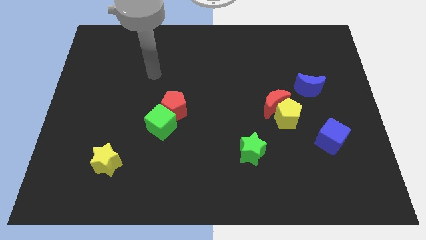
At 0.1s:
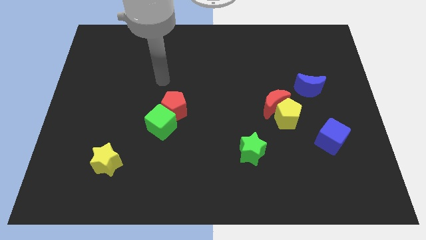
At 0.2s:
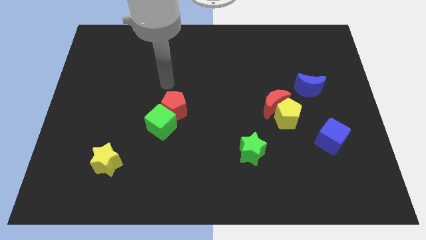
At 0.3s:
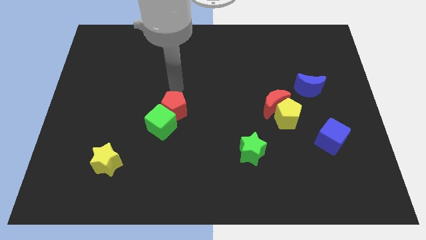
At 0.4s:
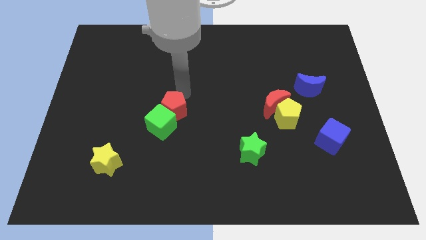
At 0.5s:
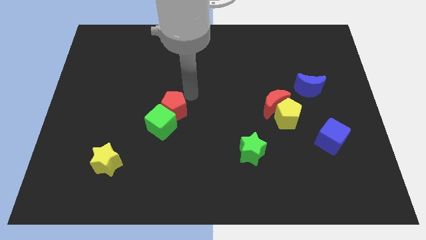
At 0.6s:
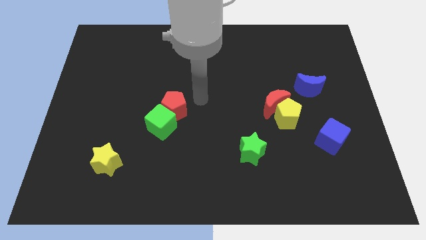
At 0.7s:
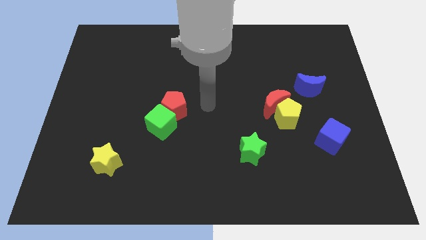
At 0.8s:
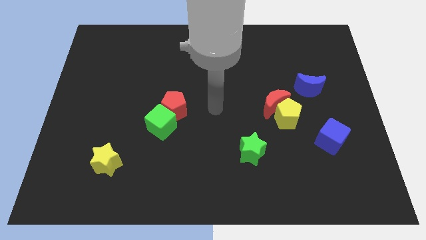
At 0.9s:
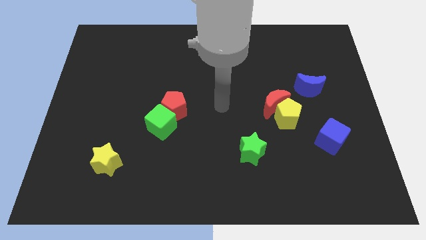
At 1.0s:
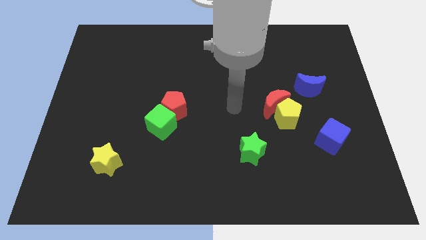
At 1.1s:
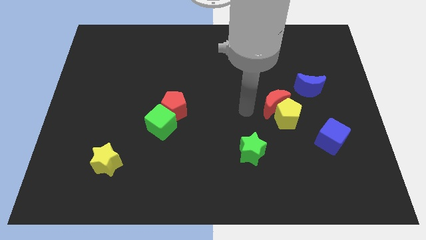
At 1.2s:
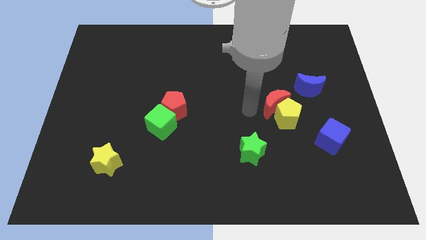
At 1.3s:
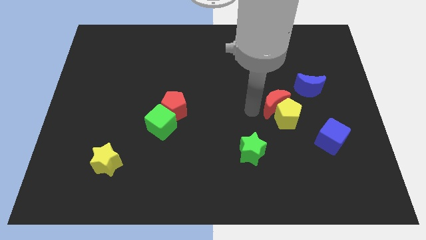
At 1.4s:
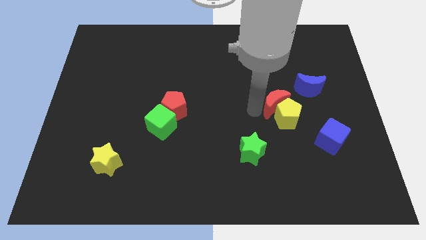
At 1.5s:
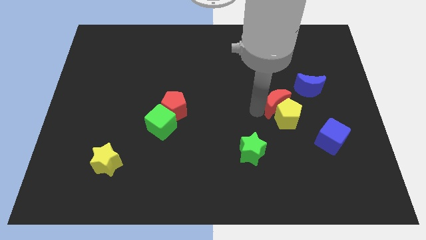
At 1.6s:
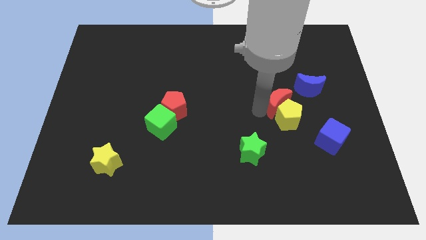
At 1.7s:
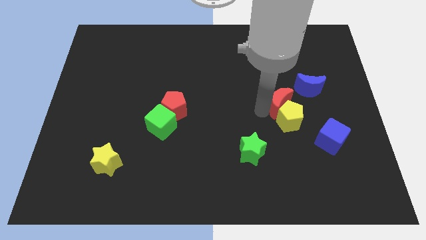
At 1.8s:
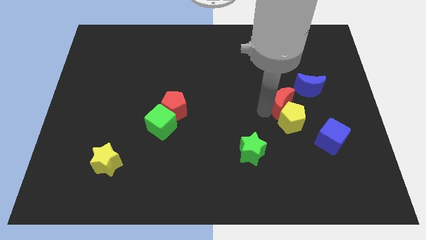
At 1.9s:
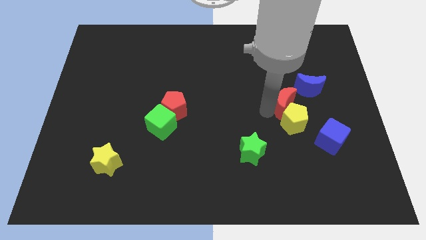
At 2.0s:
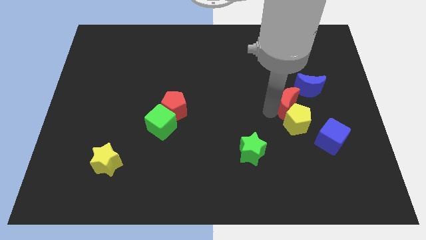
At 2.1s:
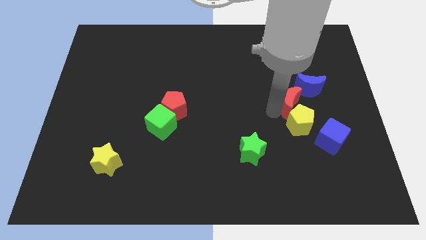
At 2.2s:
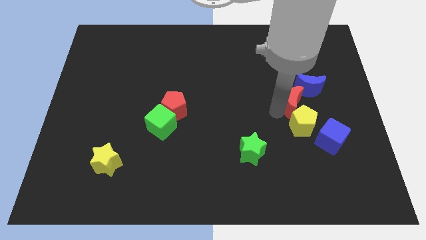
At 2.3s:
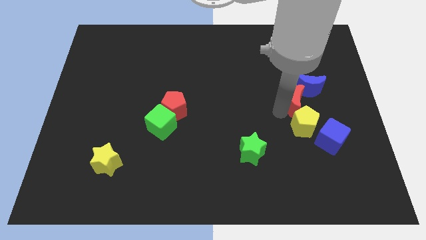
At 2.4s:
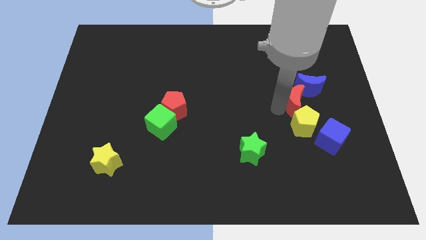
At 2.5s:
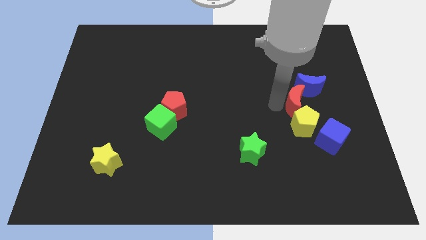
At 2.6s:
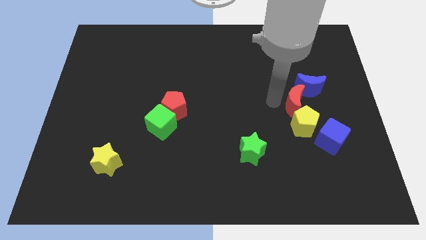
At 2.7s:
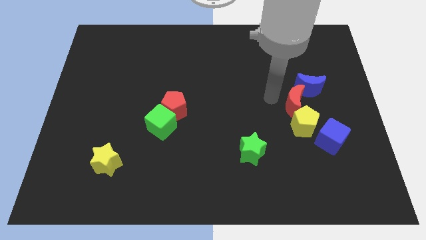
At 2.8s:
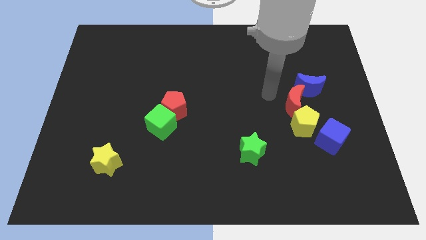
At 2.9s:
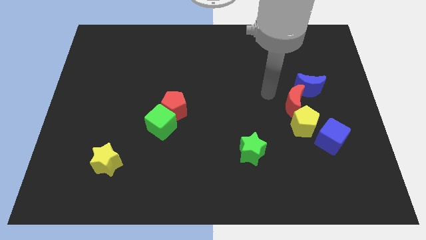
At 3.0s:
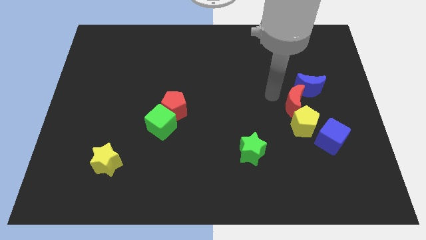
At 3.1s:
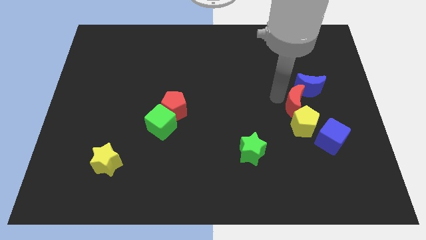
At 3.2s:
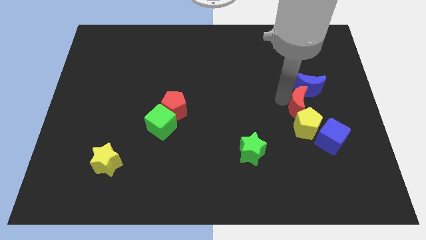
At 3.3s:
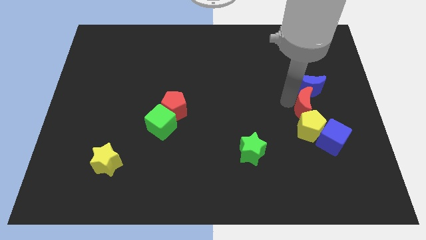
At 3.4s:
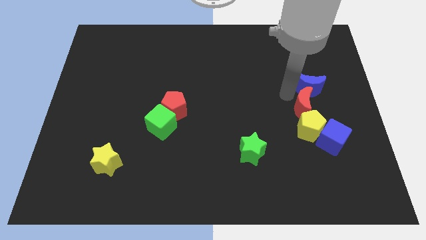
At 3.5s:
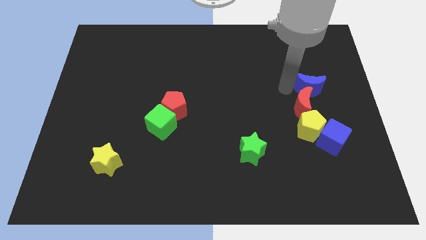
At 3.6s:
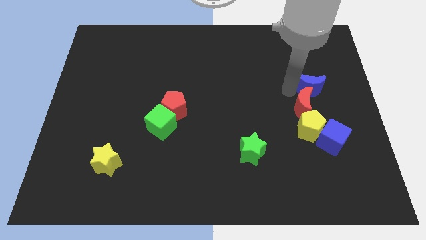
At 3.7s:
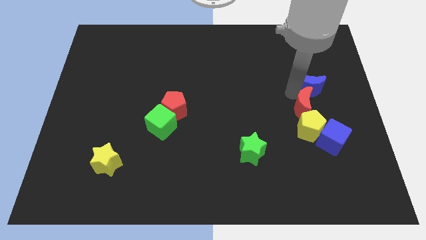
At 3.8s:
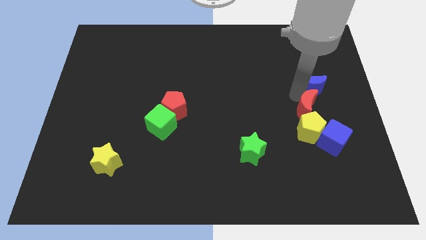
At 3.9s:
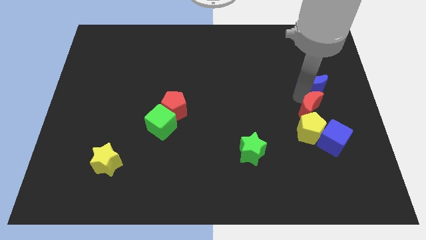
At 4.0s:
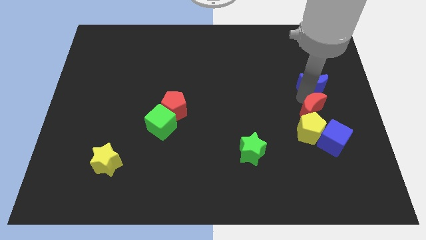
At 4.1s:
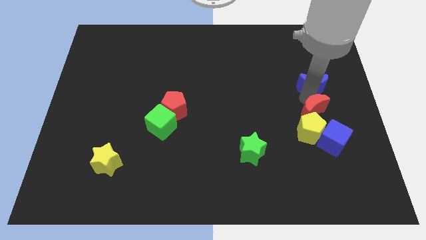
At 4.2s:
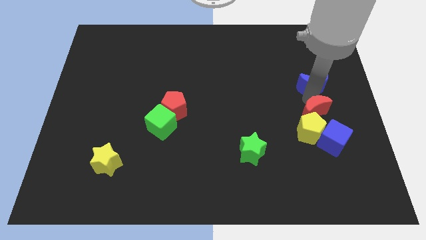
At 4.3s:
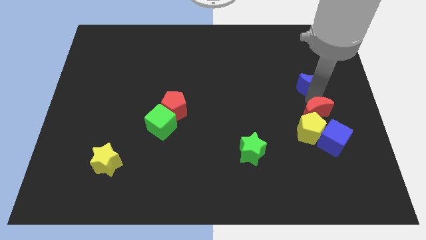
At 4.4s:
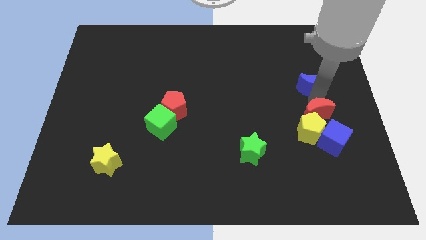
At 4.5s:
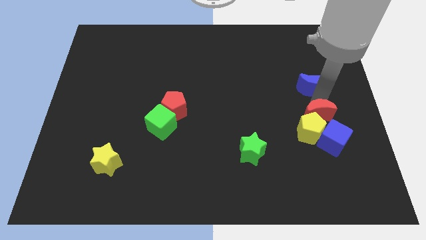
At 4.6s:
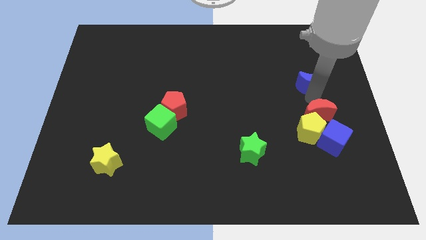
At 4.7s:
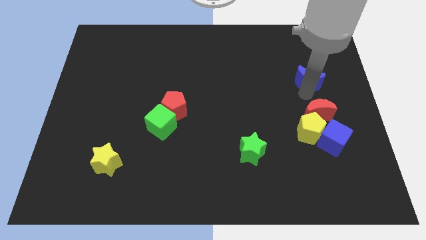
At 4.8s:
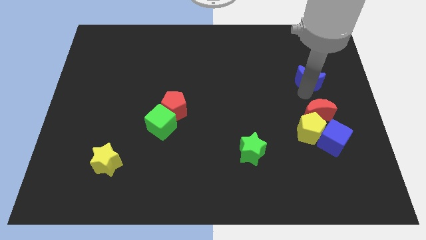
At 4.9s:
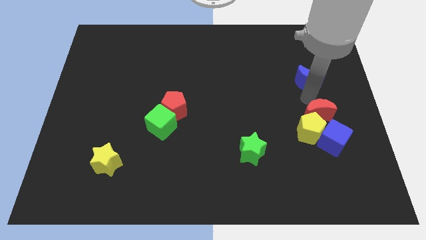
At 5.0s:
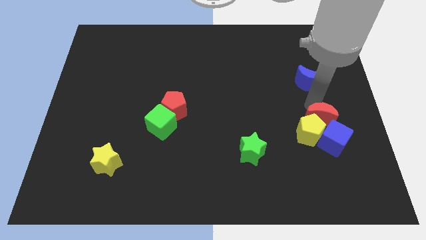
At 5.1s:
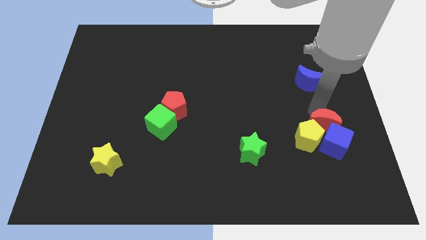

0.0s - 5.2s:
push the red moon close to the blue cube

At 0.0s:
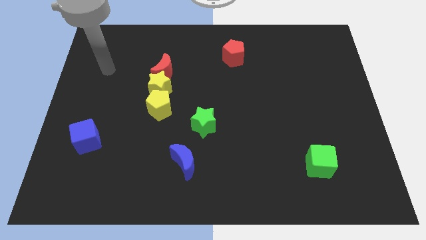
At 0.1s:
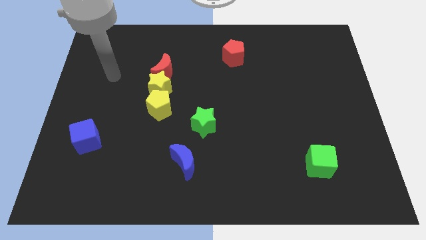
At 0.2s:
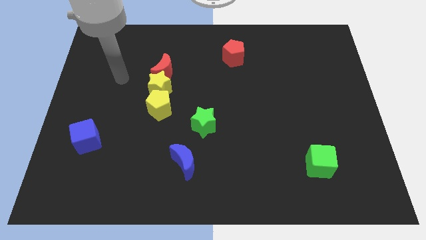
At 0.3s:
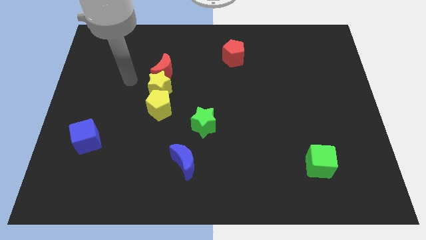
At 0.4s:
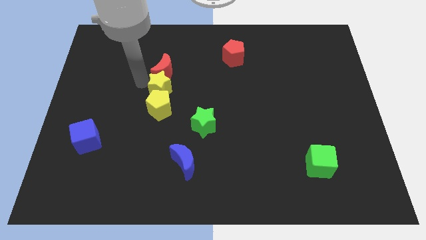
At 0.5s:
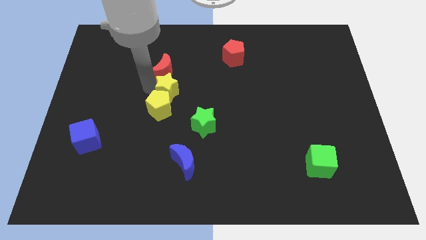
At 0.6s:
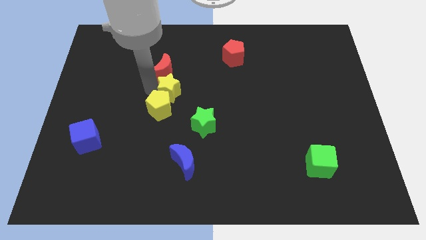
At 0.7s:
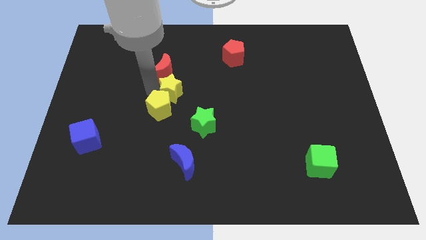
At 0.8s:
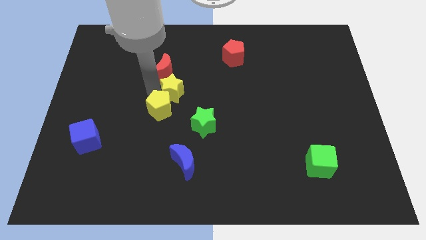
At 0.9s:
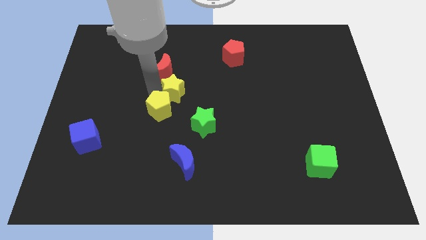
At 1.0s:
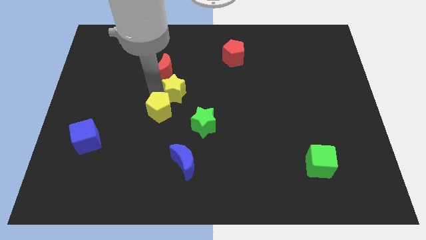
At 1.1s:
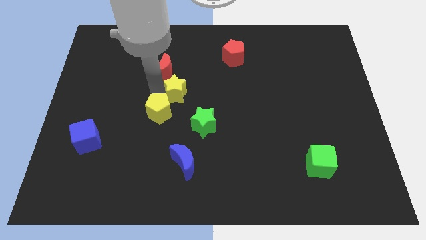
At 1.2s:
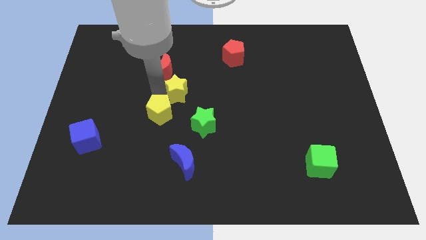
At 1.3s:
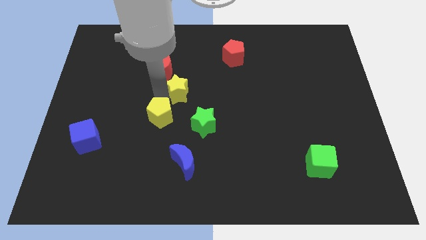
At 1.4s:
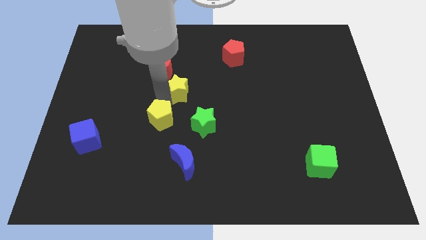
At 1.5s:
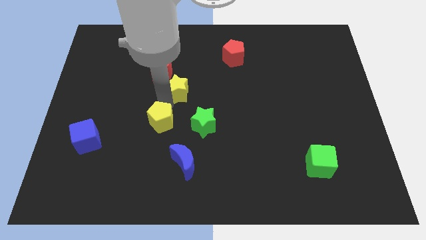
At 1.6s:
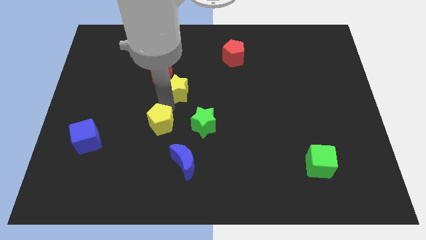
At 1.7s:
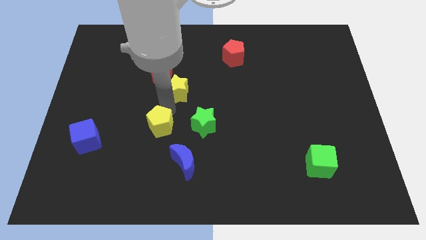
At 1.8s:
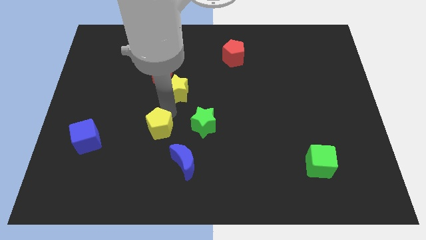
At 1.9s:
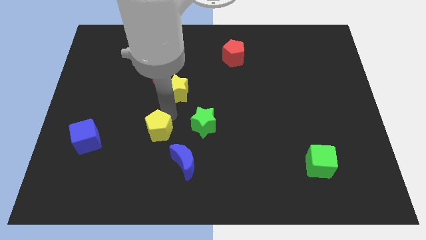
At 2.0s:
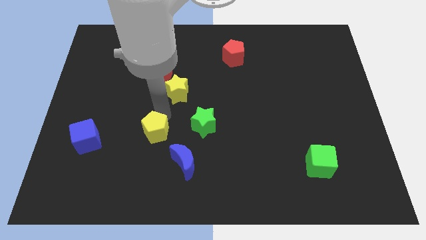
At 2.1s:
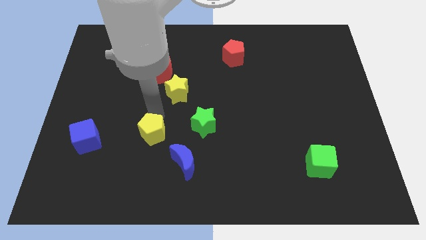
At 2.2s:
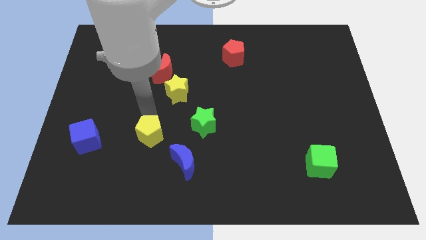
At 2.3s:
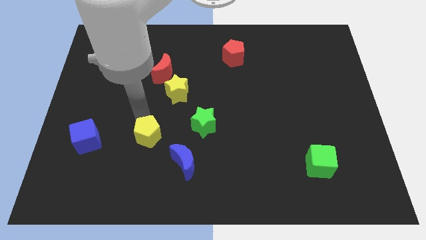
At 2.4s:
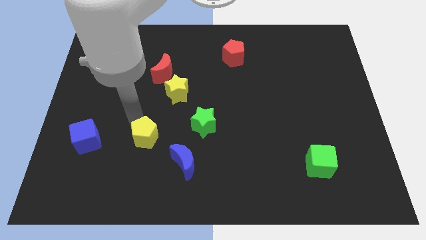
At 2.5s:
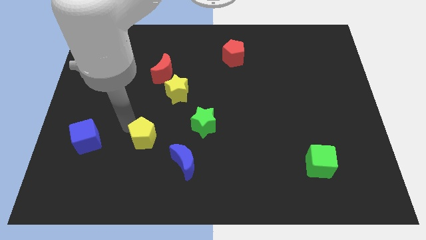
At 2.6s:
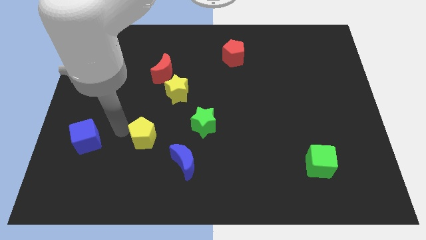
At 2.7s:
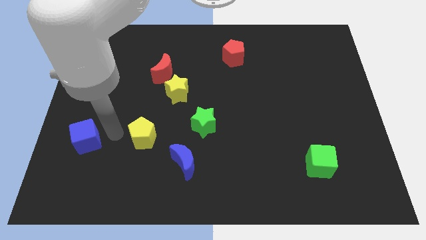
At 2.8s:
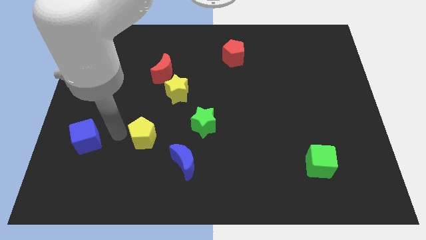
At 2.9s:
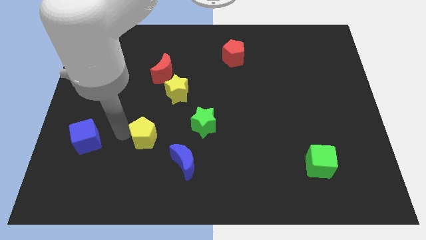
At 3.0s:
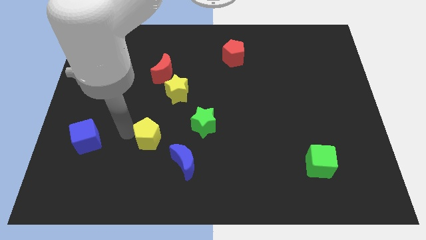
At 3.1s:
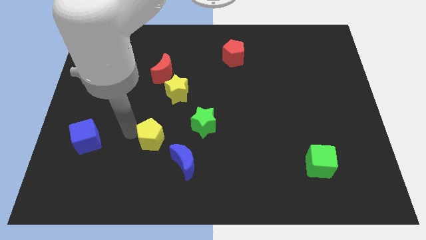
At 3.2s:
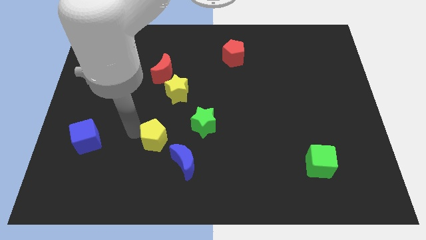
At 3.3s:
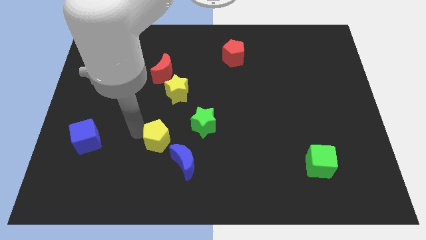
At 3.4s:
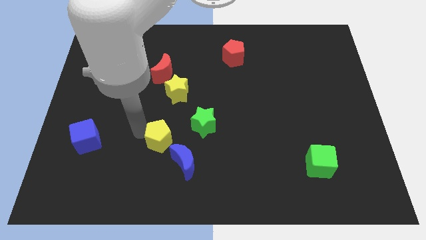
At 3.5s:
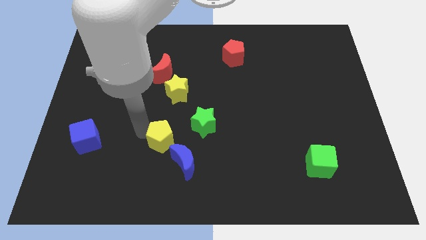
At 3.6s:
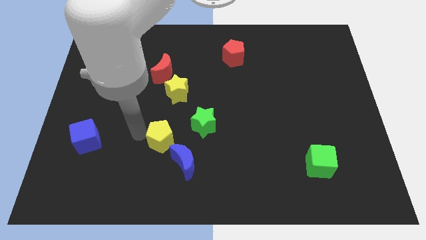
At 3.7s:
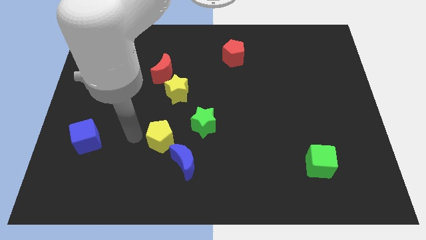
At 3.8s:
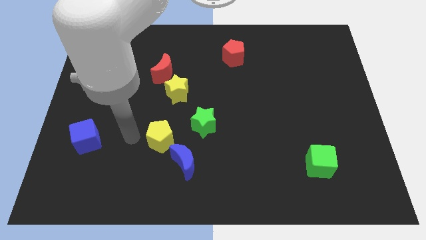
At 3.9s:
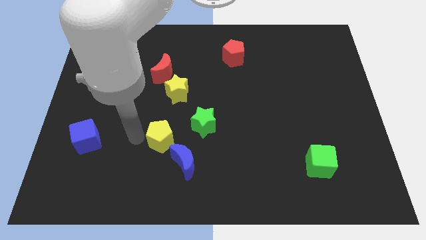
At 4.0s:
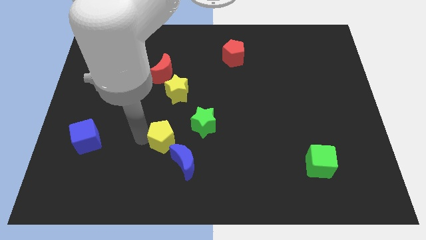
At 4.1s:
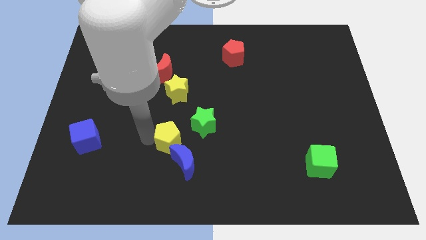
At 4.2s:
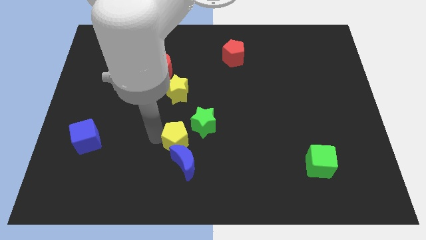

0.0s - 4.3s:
put the yellow pentagon towards the blue moon
